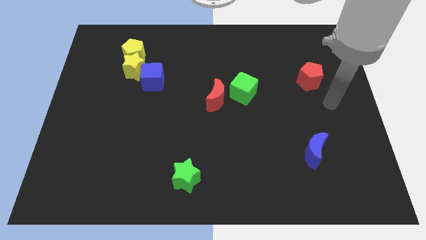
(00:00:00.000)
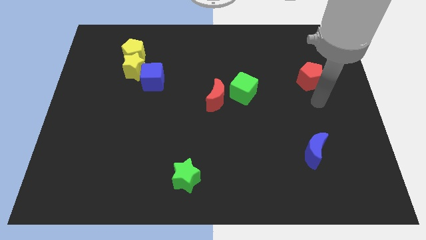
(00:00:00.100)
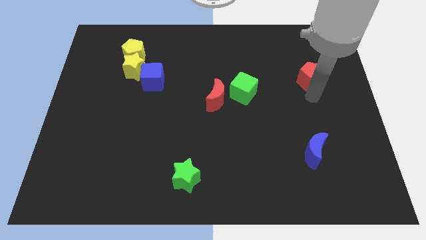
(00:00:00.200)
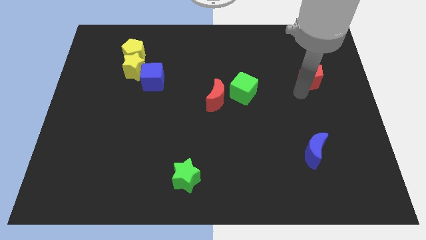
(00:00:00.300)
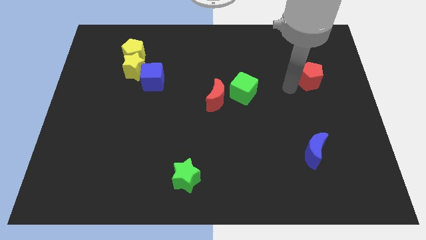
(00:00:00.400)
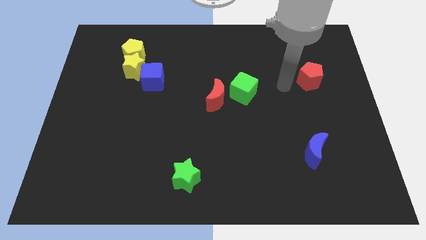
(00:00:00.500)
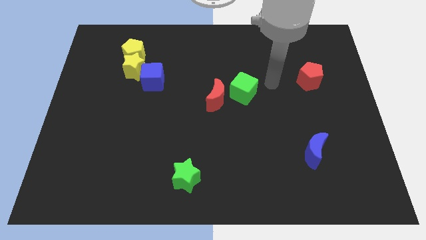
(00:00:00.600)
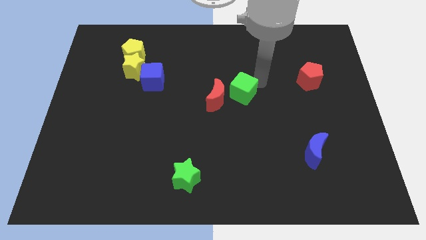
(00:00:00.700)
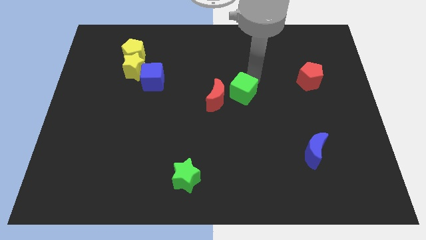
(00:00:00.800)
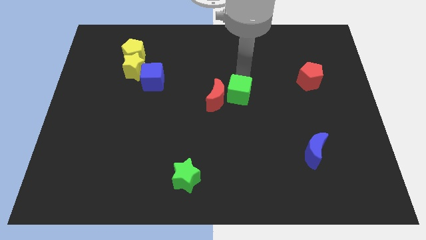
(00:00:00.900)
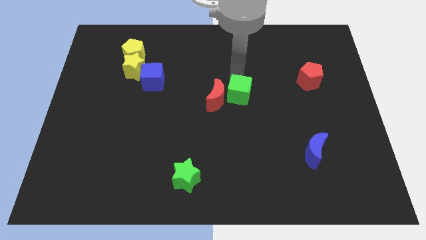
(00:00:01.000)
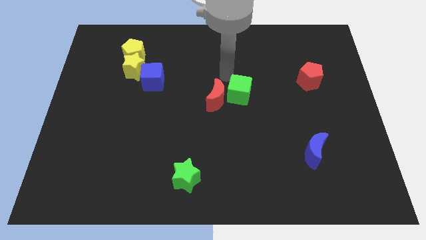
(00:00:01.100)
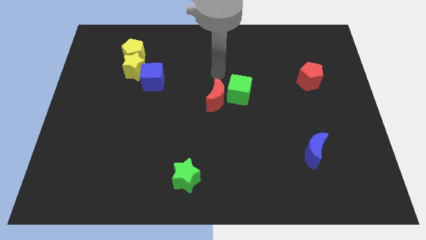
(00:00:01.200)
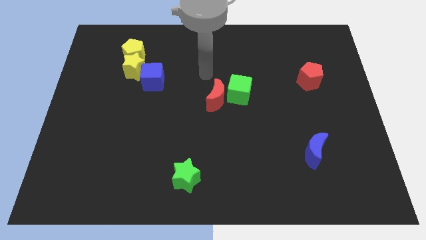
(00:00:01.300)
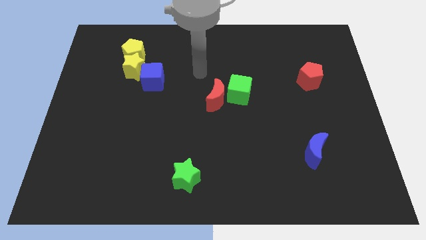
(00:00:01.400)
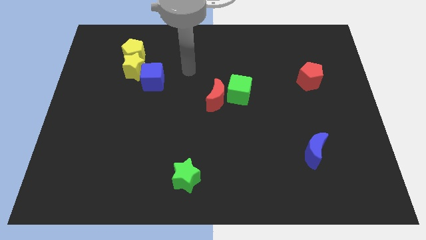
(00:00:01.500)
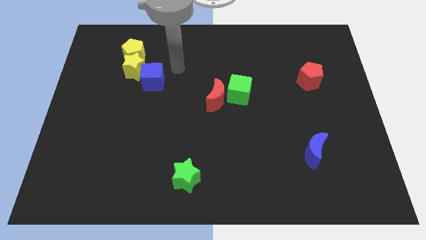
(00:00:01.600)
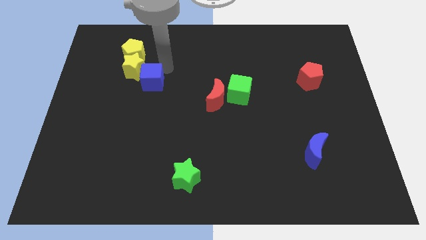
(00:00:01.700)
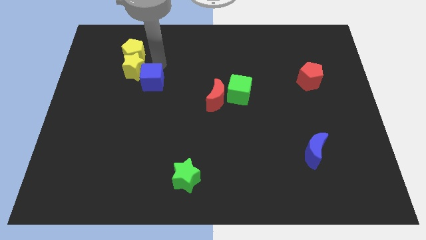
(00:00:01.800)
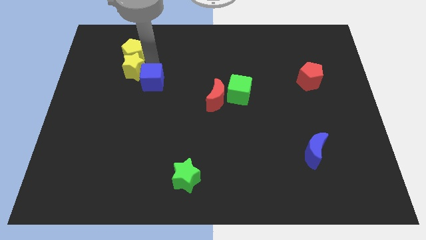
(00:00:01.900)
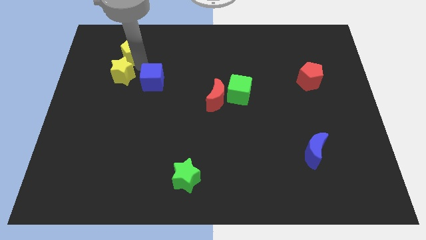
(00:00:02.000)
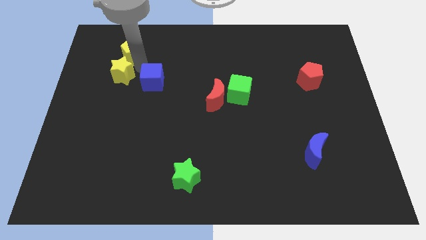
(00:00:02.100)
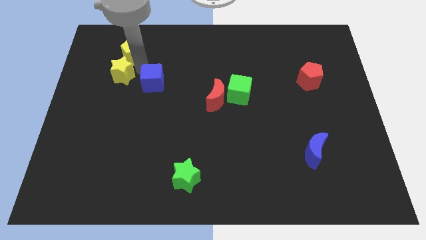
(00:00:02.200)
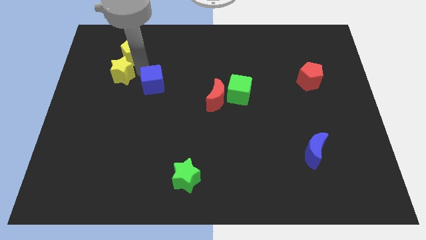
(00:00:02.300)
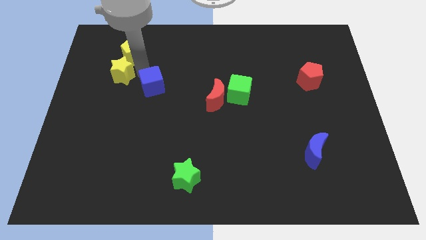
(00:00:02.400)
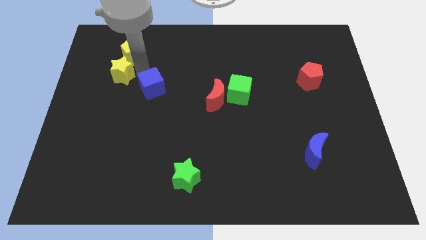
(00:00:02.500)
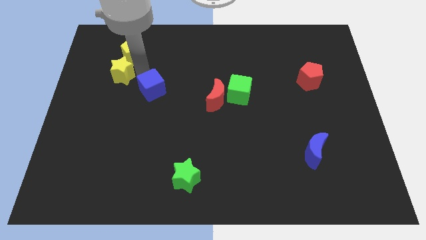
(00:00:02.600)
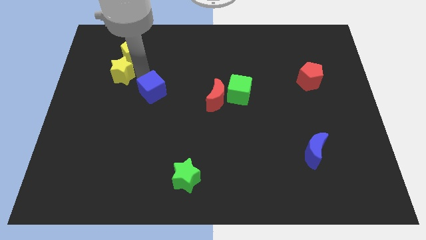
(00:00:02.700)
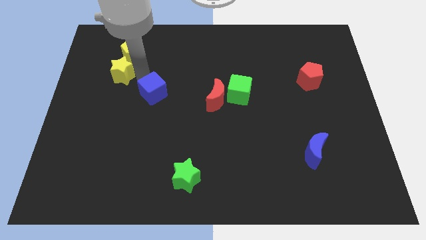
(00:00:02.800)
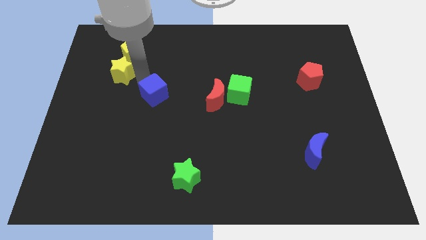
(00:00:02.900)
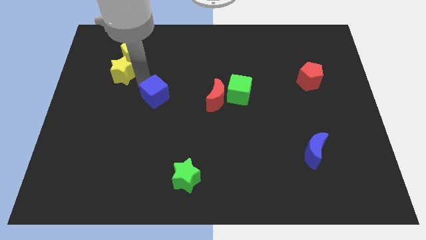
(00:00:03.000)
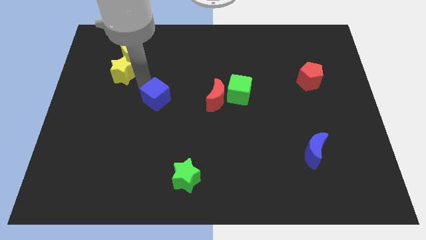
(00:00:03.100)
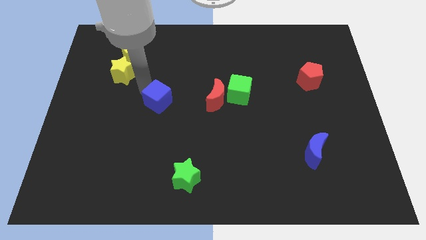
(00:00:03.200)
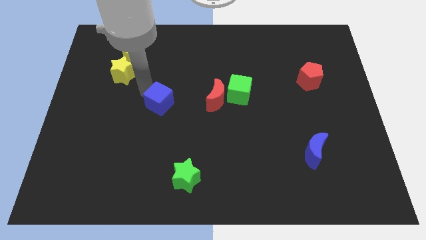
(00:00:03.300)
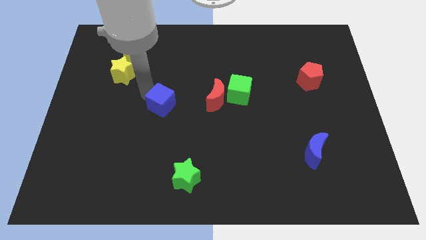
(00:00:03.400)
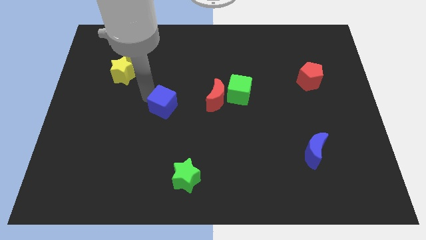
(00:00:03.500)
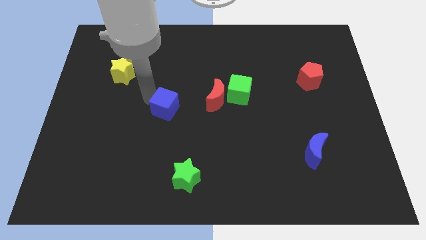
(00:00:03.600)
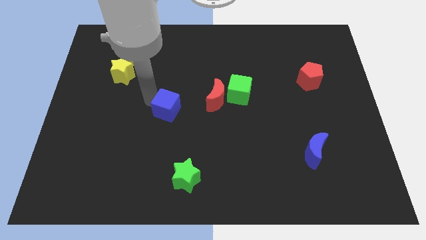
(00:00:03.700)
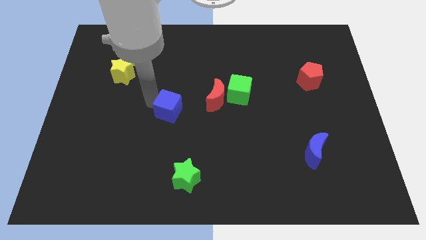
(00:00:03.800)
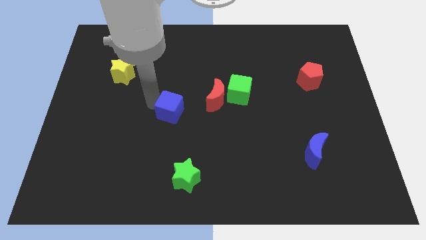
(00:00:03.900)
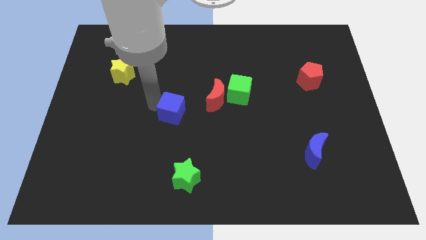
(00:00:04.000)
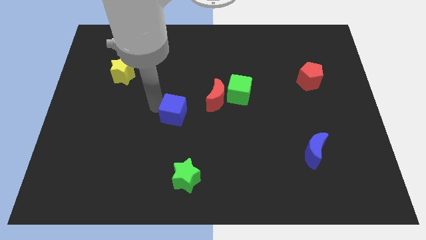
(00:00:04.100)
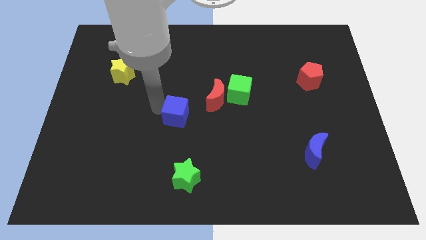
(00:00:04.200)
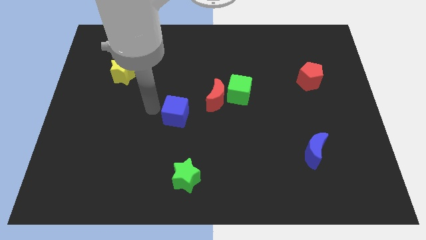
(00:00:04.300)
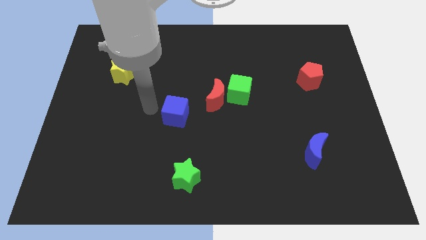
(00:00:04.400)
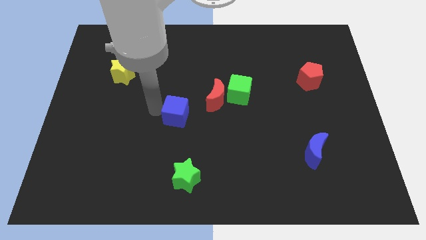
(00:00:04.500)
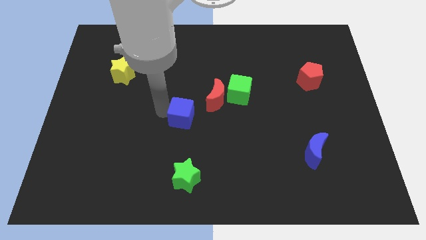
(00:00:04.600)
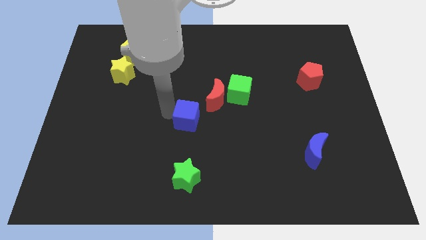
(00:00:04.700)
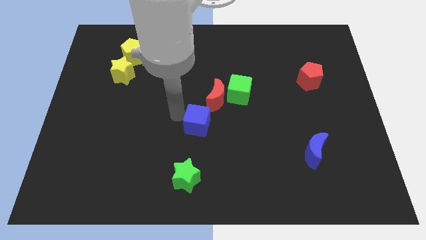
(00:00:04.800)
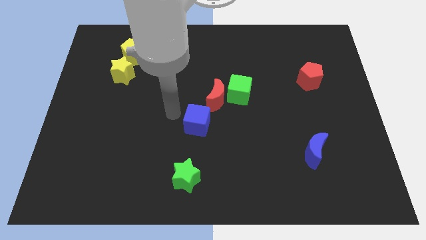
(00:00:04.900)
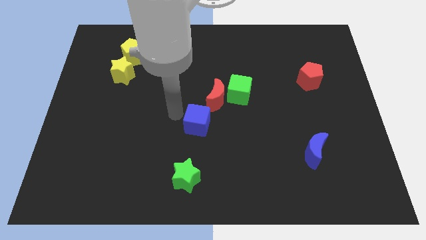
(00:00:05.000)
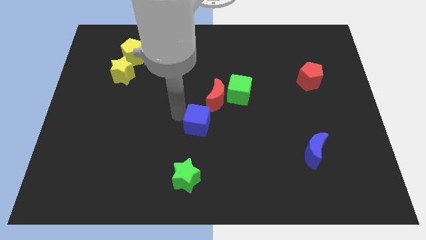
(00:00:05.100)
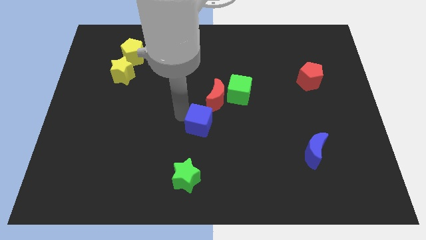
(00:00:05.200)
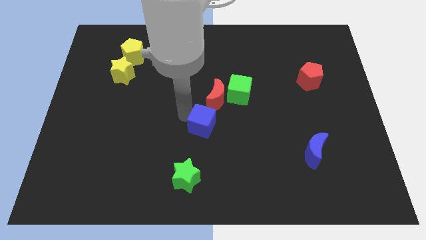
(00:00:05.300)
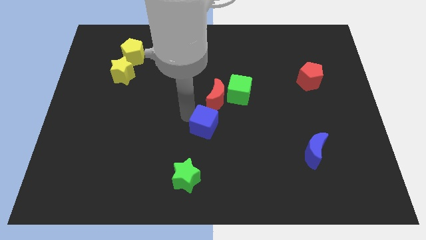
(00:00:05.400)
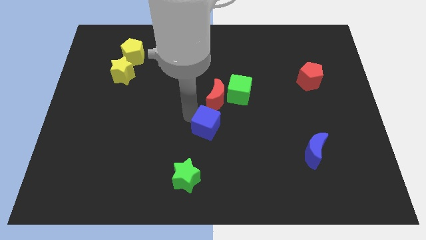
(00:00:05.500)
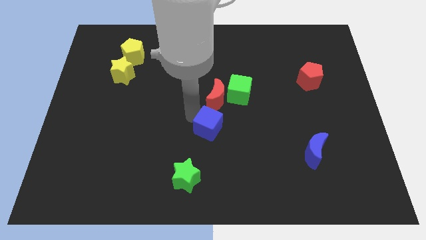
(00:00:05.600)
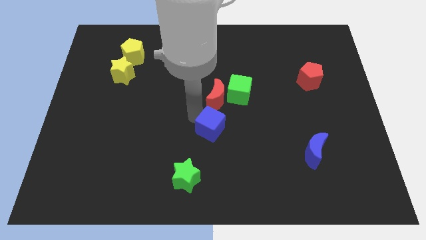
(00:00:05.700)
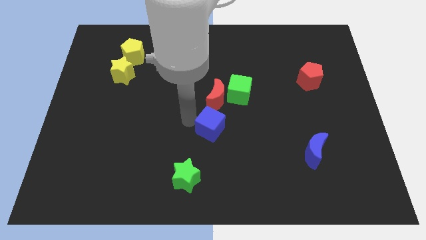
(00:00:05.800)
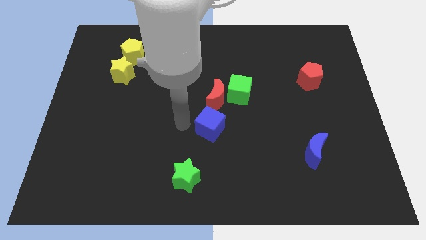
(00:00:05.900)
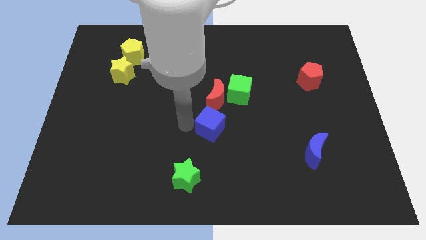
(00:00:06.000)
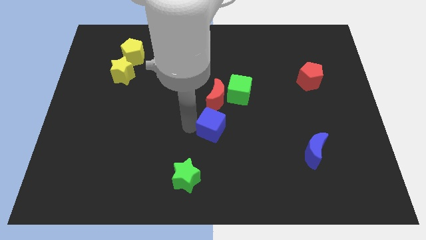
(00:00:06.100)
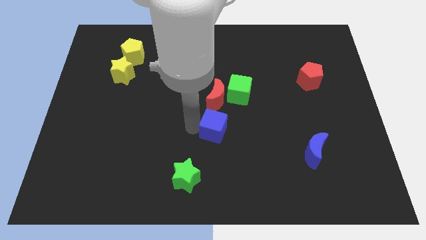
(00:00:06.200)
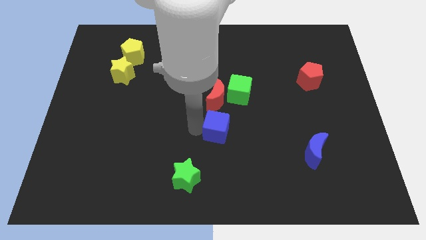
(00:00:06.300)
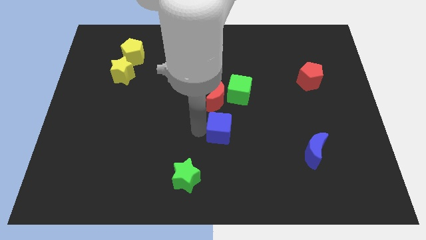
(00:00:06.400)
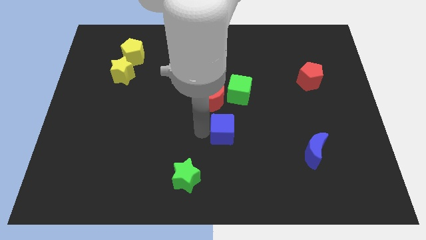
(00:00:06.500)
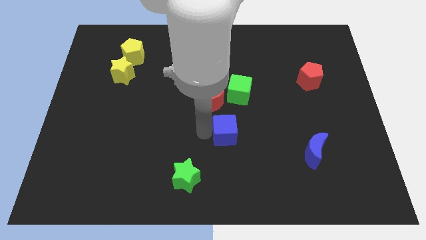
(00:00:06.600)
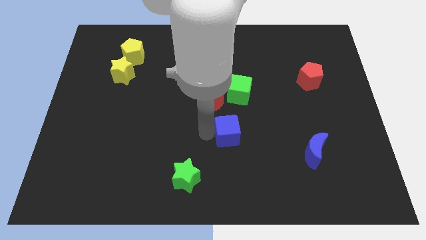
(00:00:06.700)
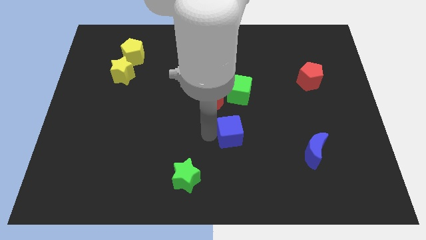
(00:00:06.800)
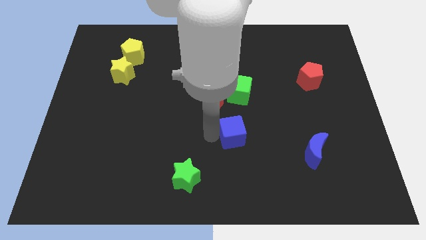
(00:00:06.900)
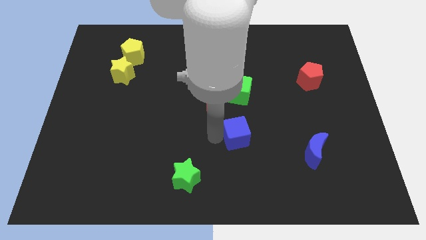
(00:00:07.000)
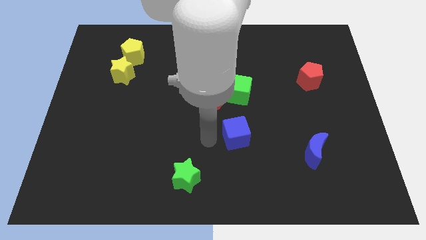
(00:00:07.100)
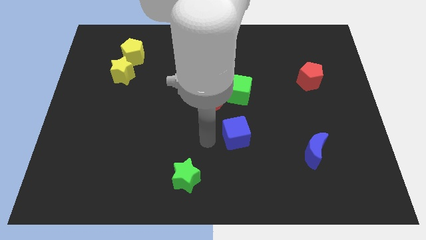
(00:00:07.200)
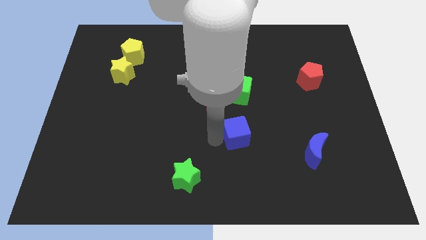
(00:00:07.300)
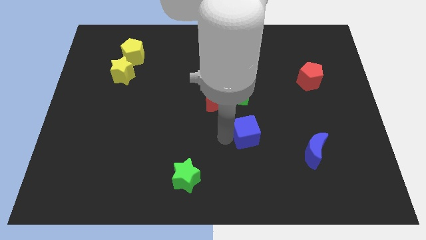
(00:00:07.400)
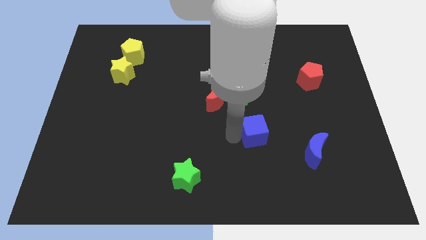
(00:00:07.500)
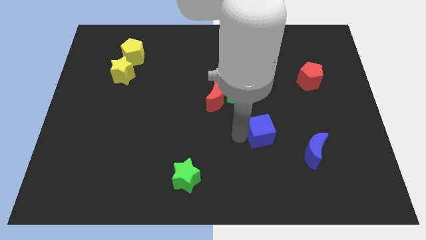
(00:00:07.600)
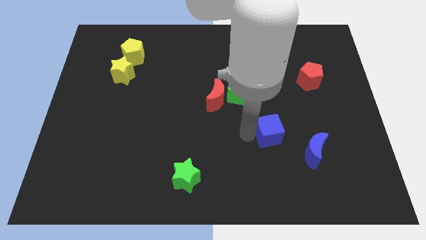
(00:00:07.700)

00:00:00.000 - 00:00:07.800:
move the blue cube to the top left of the blue moon

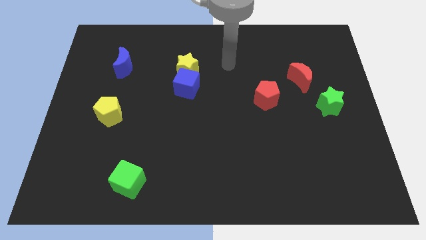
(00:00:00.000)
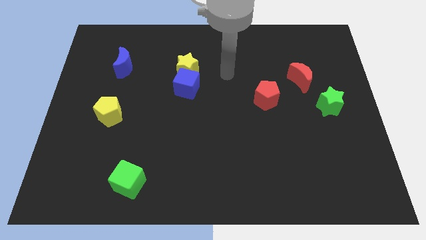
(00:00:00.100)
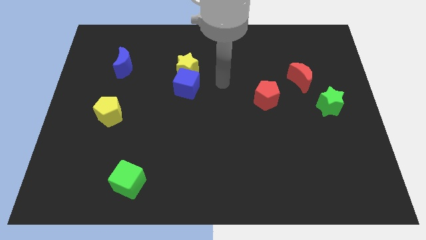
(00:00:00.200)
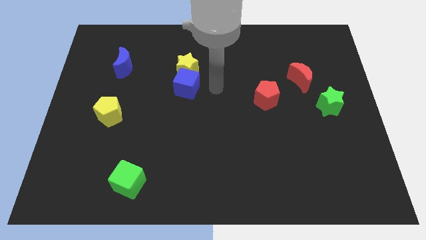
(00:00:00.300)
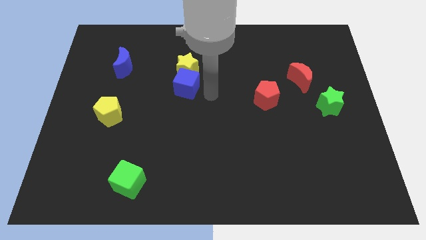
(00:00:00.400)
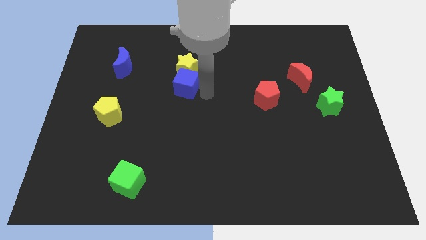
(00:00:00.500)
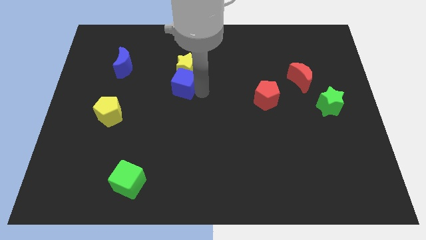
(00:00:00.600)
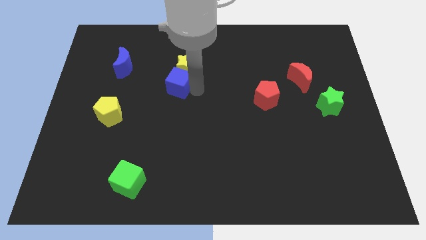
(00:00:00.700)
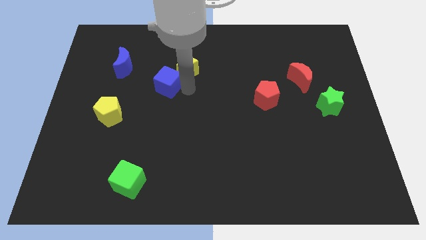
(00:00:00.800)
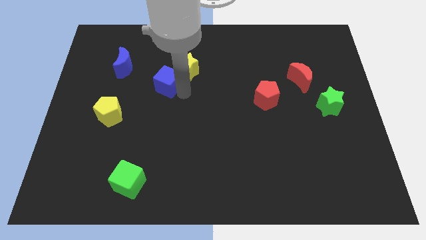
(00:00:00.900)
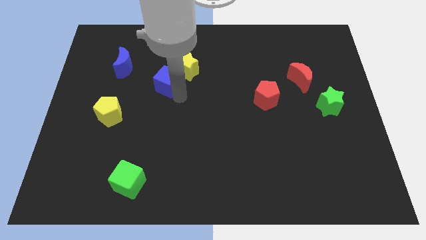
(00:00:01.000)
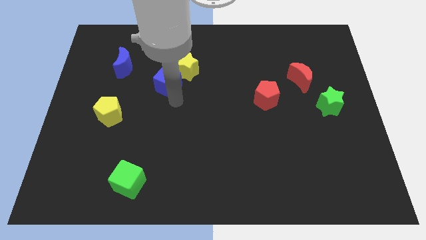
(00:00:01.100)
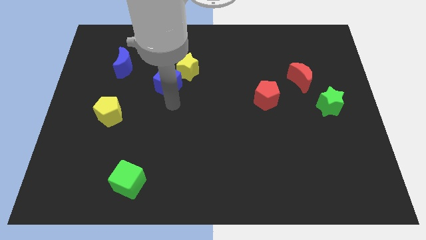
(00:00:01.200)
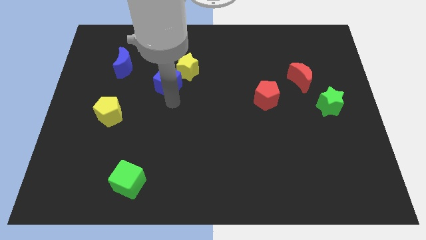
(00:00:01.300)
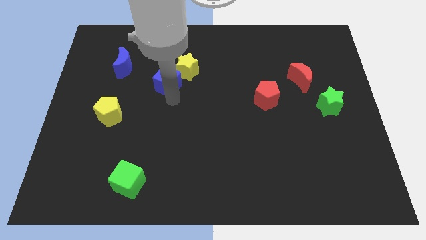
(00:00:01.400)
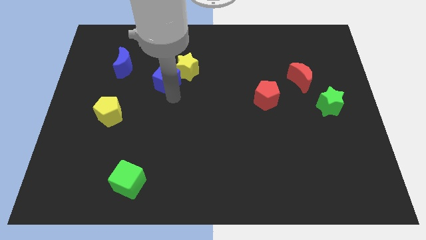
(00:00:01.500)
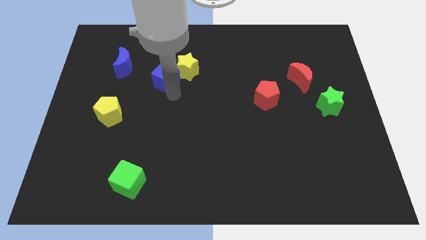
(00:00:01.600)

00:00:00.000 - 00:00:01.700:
slide the blue cube to the right side of the blue moon
